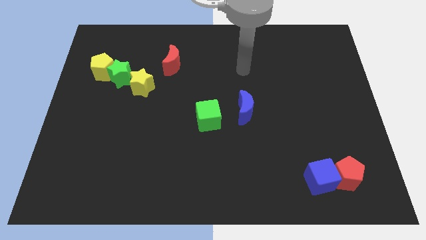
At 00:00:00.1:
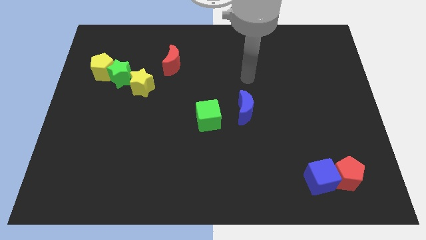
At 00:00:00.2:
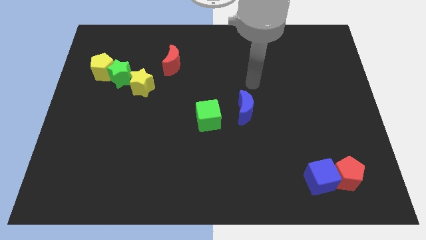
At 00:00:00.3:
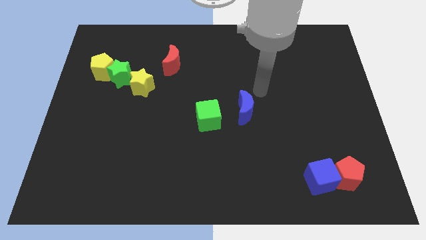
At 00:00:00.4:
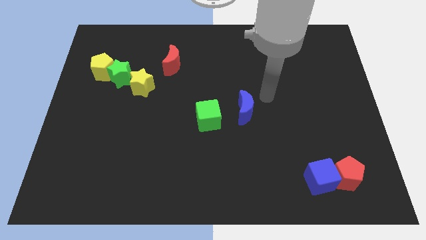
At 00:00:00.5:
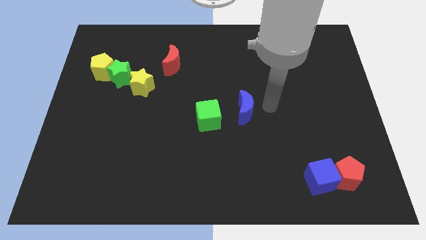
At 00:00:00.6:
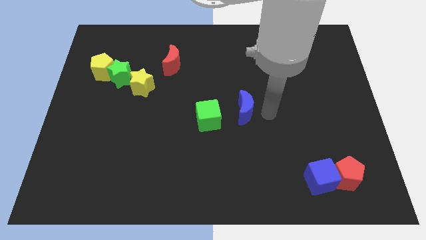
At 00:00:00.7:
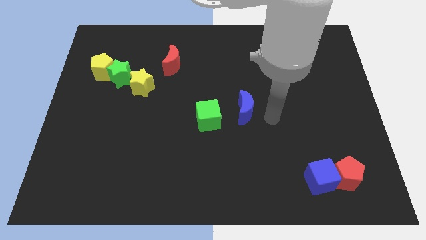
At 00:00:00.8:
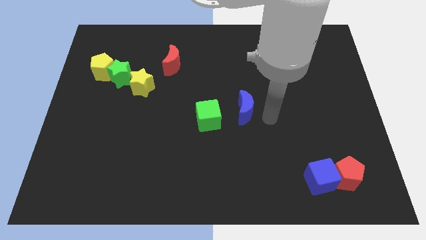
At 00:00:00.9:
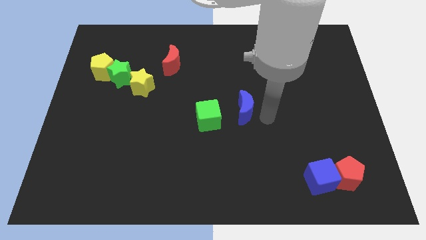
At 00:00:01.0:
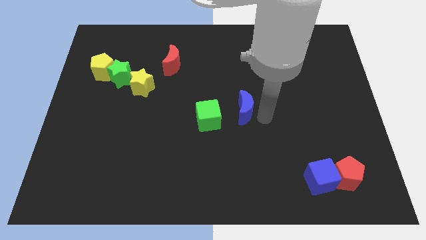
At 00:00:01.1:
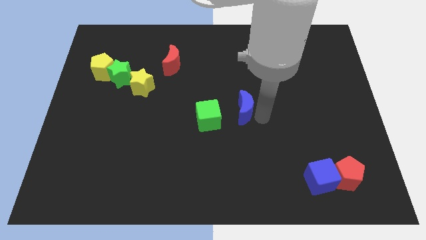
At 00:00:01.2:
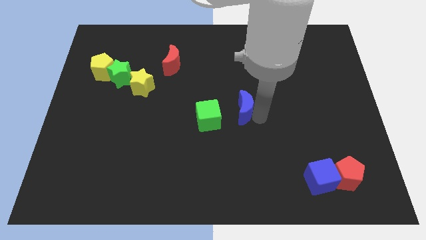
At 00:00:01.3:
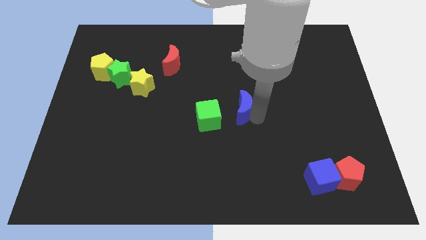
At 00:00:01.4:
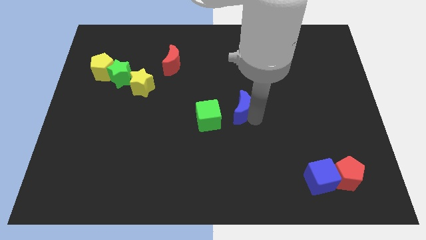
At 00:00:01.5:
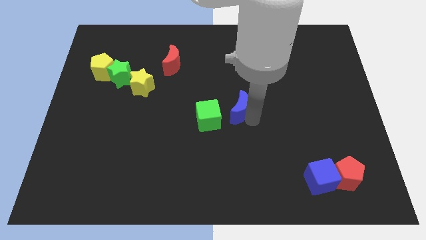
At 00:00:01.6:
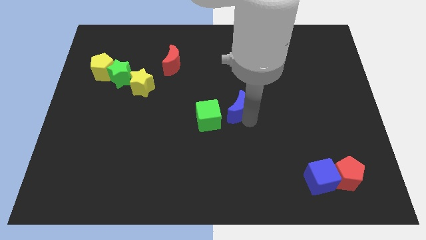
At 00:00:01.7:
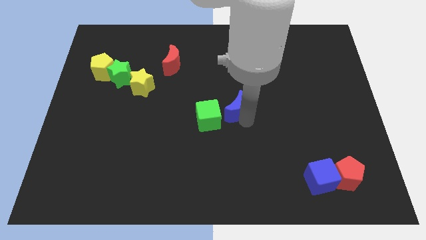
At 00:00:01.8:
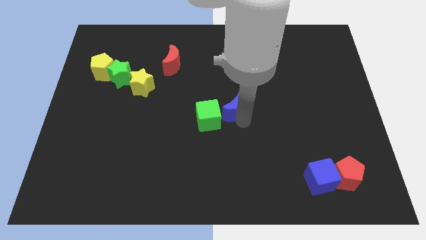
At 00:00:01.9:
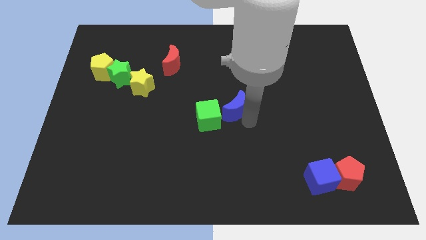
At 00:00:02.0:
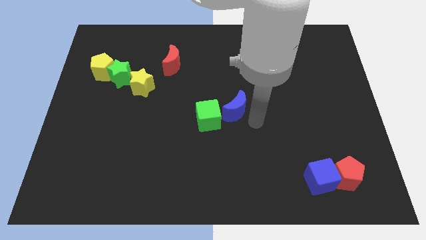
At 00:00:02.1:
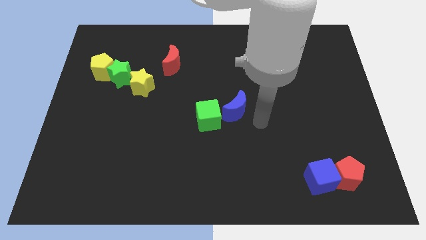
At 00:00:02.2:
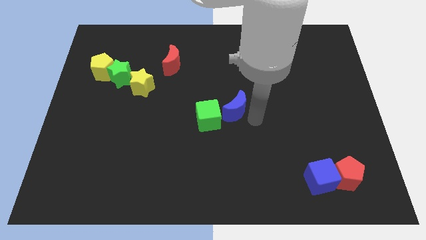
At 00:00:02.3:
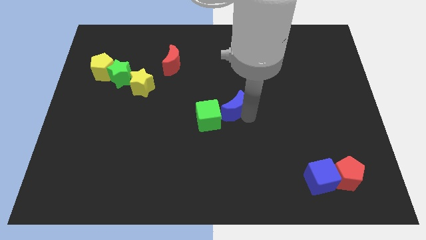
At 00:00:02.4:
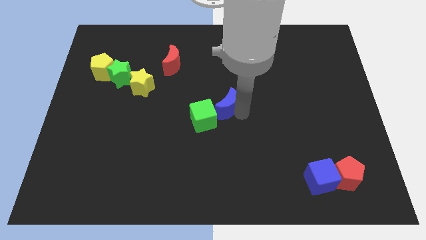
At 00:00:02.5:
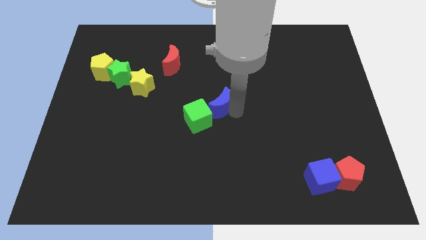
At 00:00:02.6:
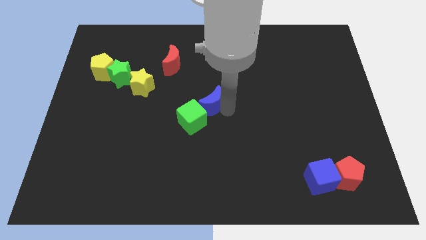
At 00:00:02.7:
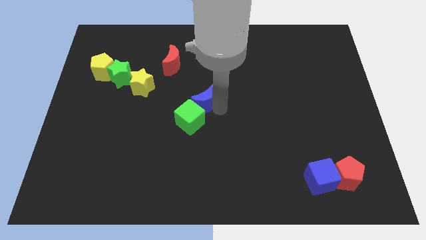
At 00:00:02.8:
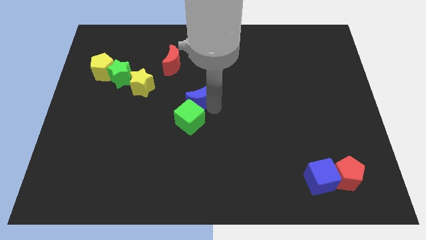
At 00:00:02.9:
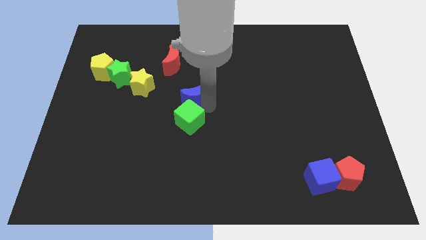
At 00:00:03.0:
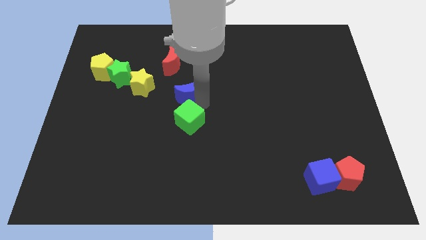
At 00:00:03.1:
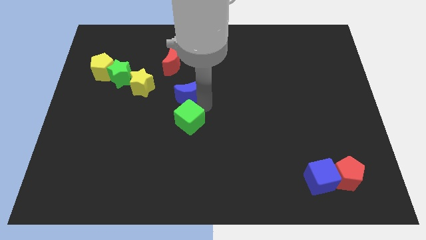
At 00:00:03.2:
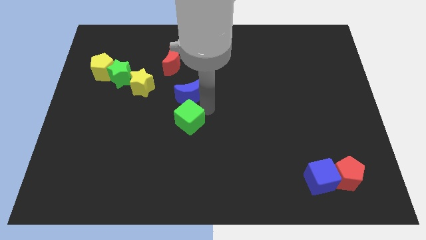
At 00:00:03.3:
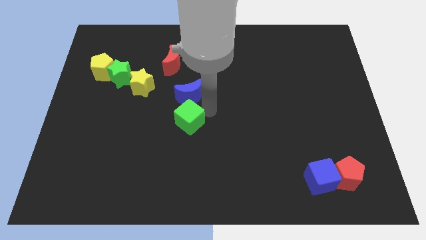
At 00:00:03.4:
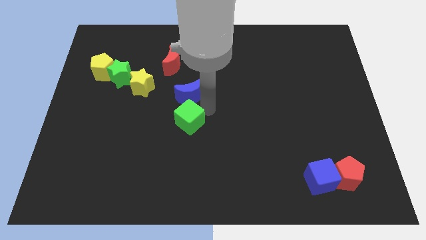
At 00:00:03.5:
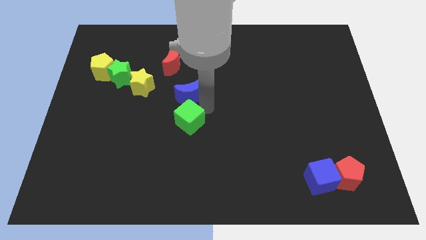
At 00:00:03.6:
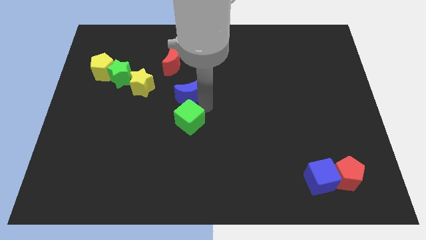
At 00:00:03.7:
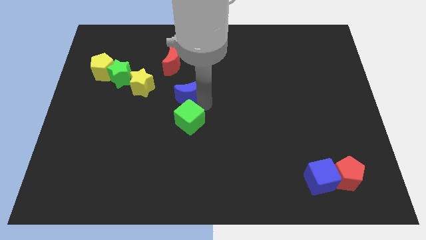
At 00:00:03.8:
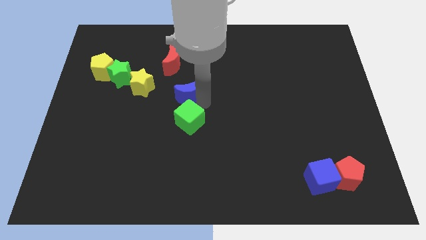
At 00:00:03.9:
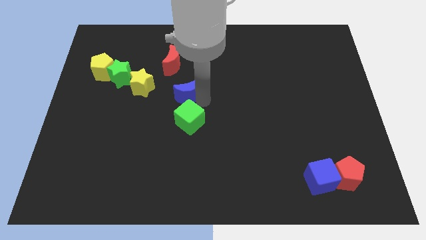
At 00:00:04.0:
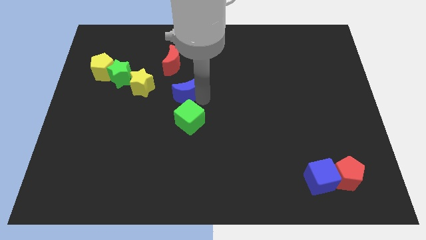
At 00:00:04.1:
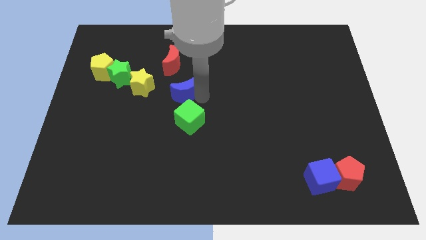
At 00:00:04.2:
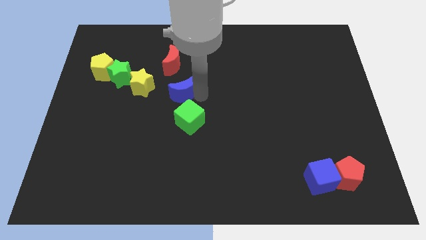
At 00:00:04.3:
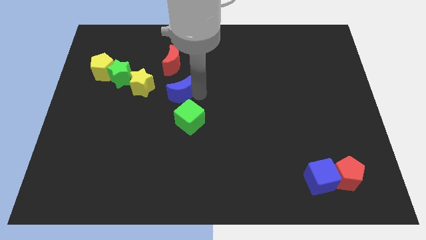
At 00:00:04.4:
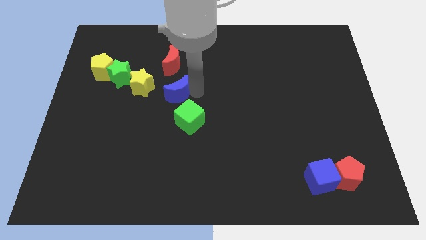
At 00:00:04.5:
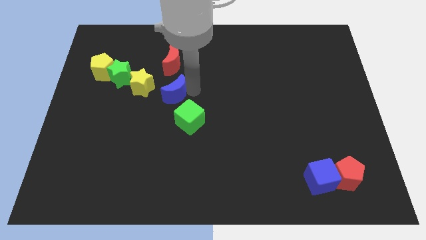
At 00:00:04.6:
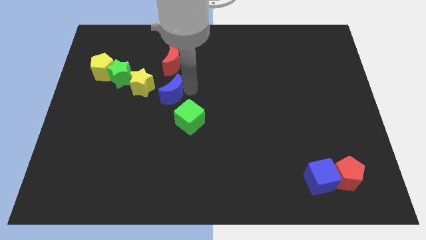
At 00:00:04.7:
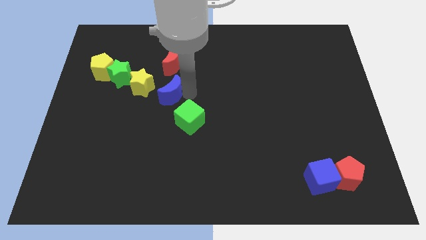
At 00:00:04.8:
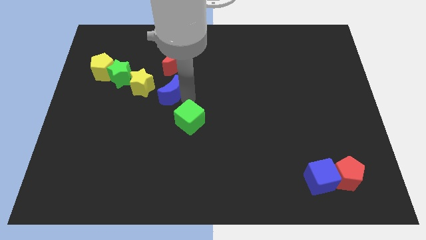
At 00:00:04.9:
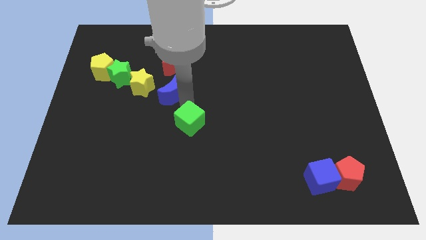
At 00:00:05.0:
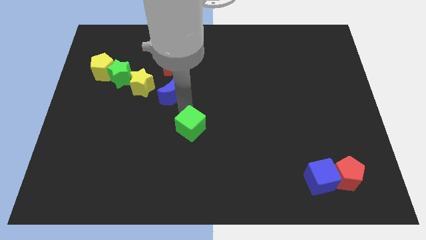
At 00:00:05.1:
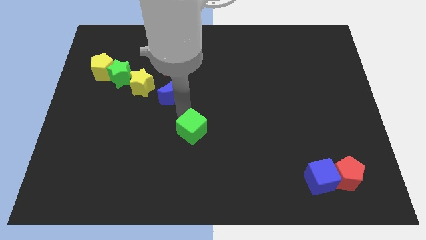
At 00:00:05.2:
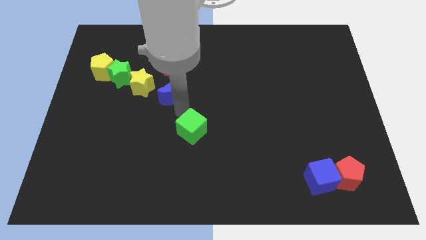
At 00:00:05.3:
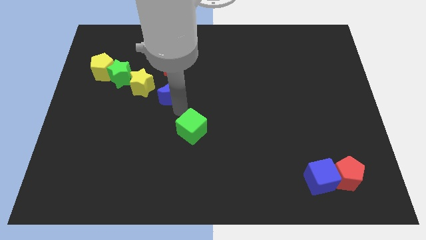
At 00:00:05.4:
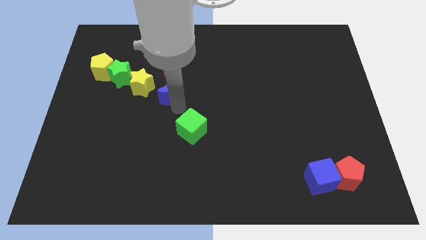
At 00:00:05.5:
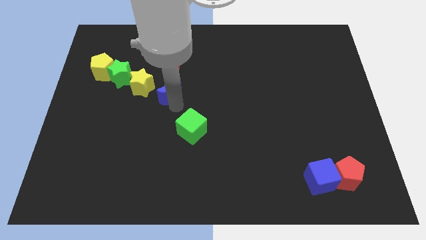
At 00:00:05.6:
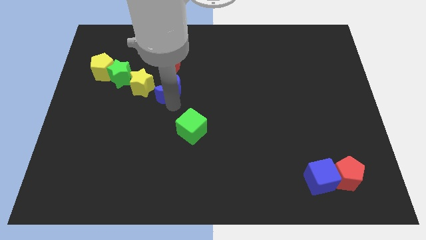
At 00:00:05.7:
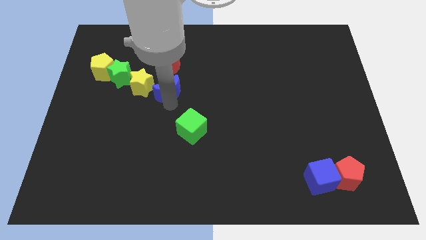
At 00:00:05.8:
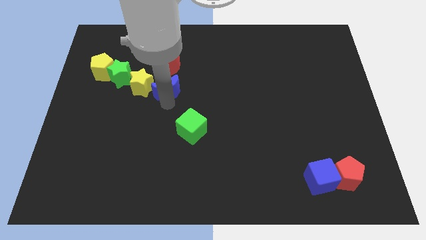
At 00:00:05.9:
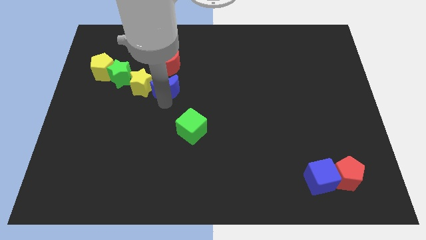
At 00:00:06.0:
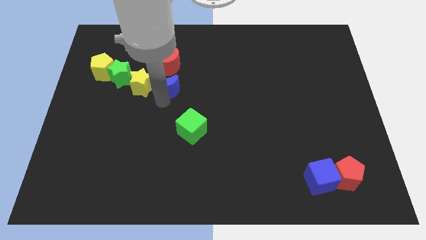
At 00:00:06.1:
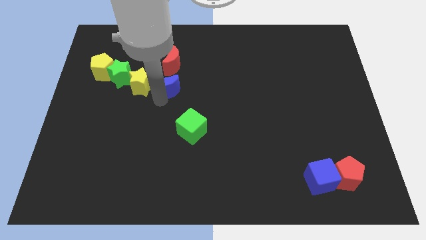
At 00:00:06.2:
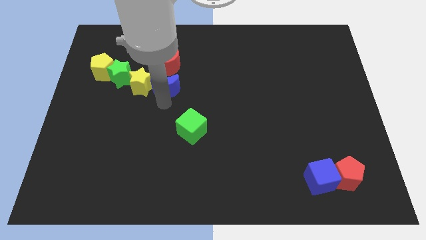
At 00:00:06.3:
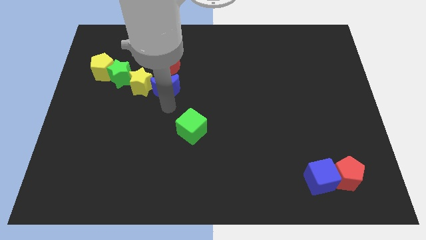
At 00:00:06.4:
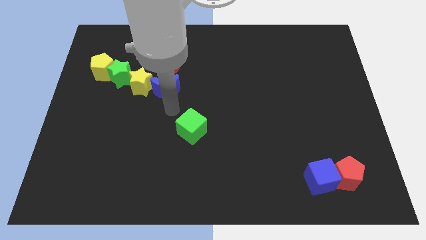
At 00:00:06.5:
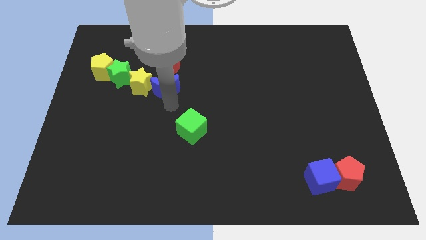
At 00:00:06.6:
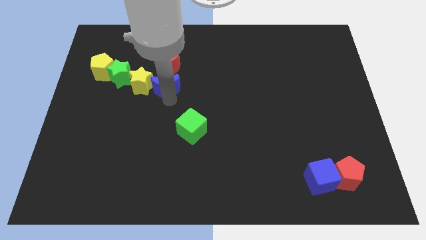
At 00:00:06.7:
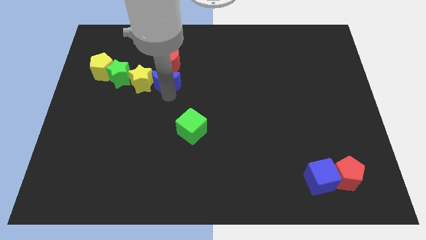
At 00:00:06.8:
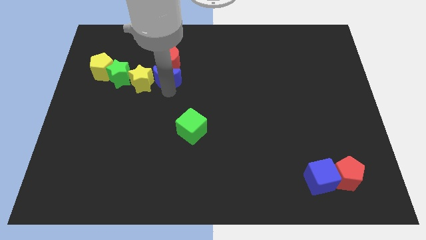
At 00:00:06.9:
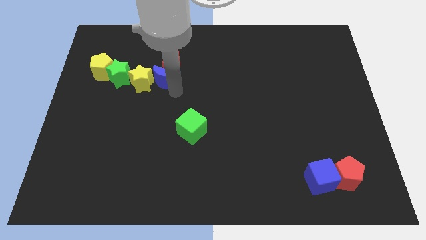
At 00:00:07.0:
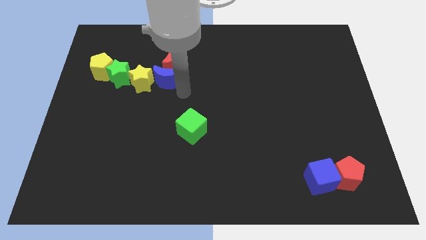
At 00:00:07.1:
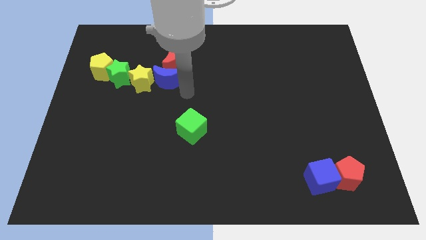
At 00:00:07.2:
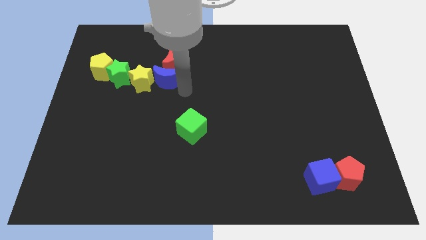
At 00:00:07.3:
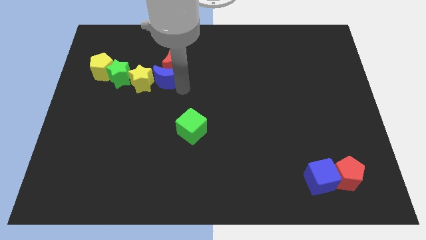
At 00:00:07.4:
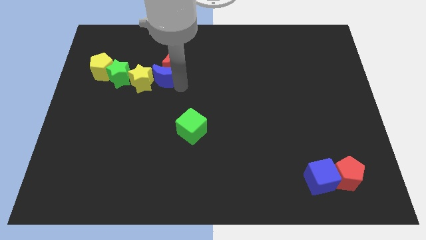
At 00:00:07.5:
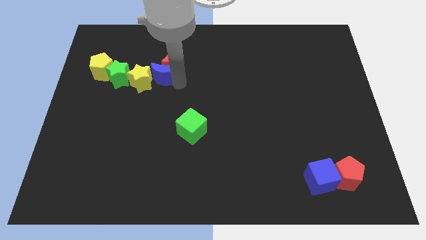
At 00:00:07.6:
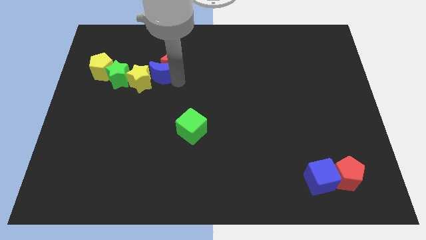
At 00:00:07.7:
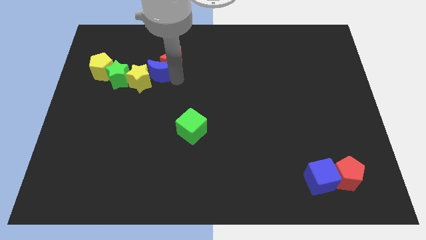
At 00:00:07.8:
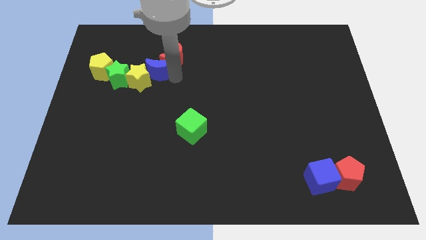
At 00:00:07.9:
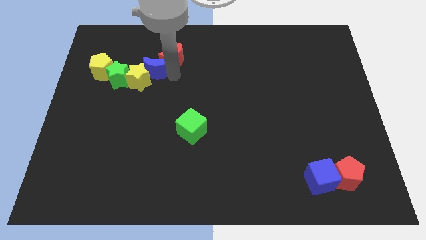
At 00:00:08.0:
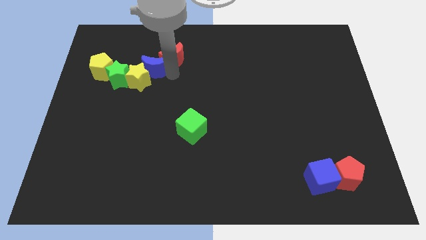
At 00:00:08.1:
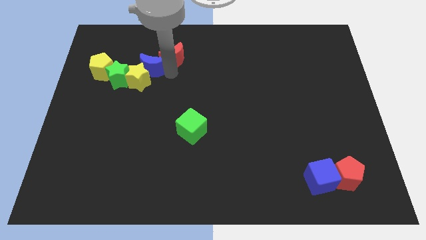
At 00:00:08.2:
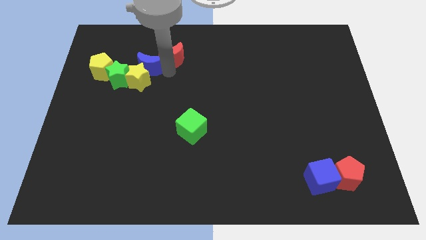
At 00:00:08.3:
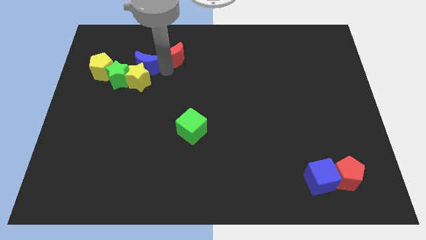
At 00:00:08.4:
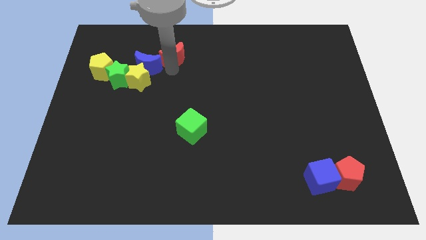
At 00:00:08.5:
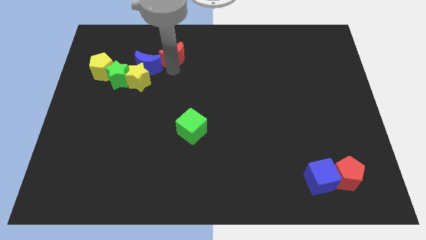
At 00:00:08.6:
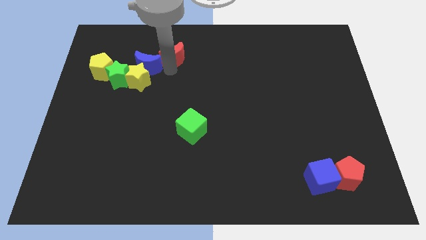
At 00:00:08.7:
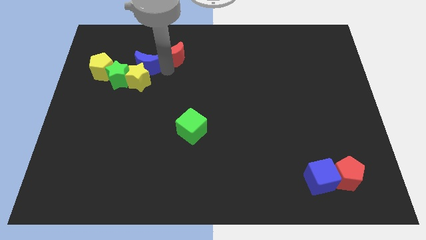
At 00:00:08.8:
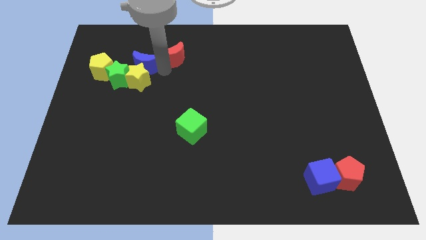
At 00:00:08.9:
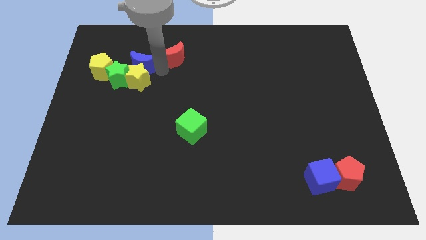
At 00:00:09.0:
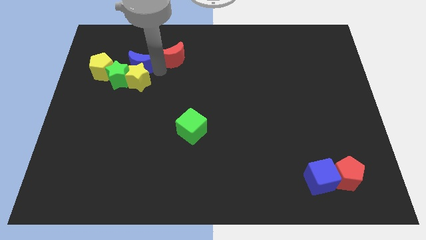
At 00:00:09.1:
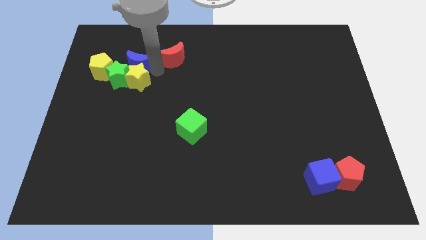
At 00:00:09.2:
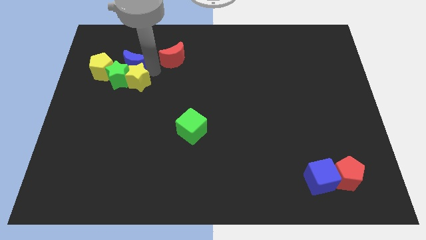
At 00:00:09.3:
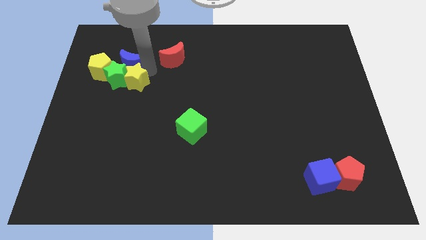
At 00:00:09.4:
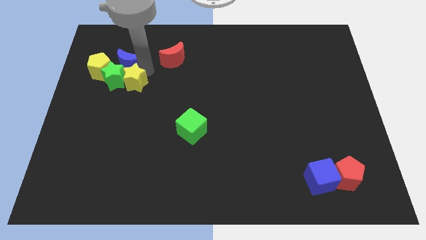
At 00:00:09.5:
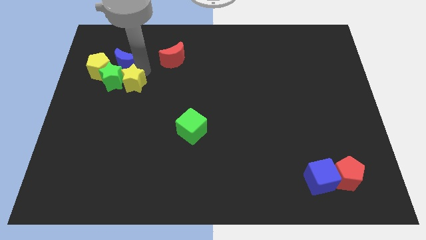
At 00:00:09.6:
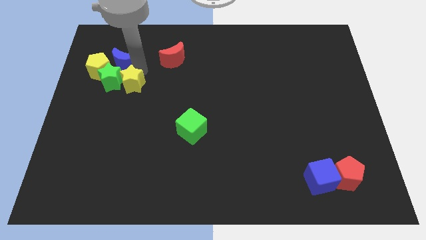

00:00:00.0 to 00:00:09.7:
move the blue moon close to the yellow pentagon
